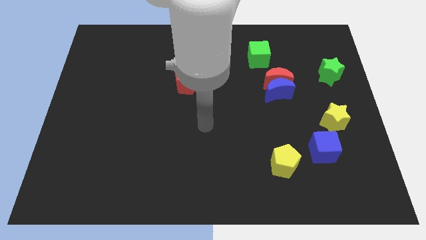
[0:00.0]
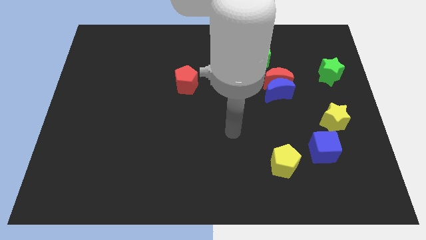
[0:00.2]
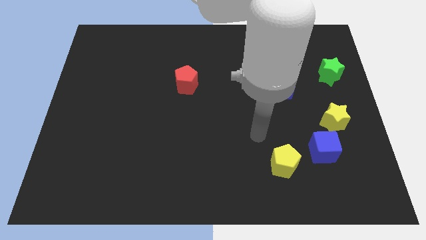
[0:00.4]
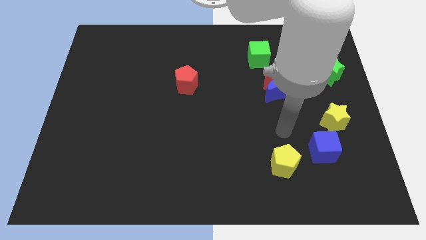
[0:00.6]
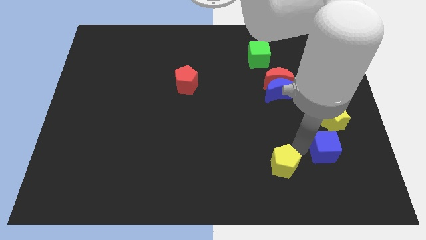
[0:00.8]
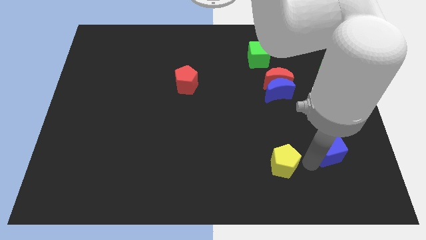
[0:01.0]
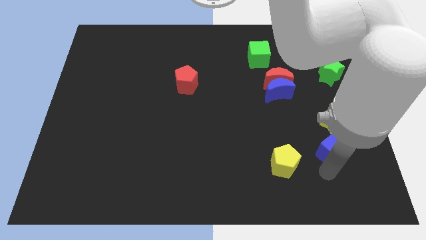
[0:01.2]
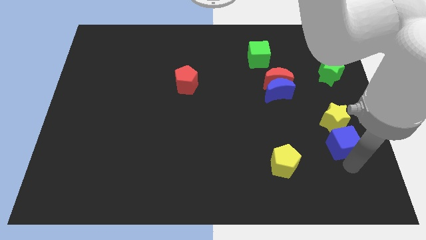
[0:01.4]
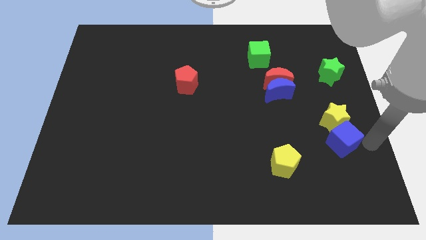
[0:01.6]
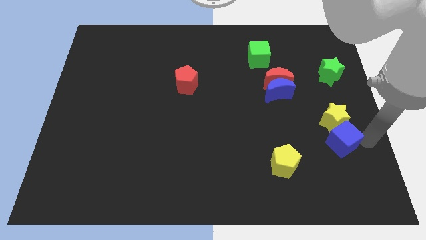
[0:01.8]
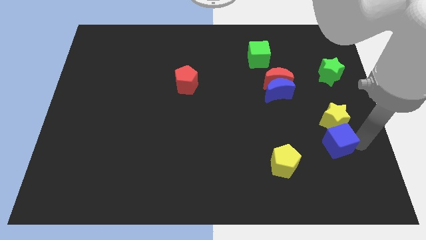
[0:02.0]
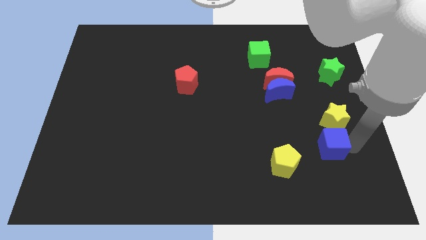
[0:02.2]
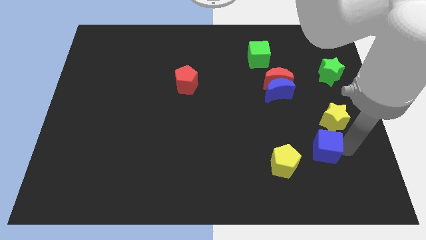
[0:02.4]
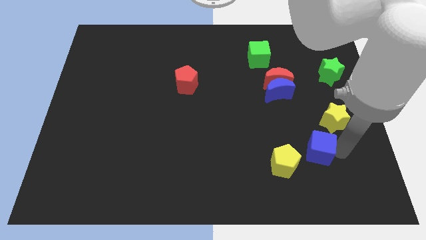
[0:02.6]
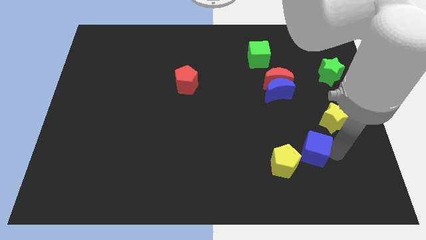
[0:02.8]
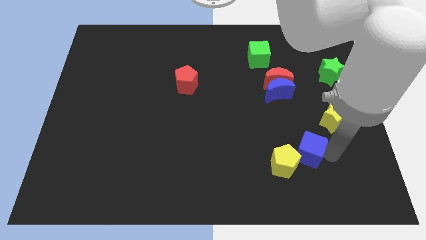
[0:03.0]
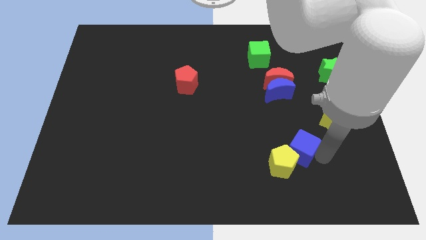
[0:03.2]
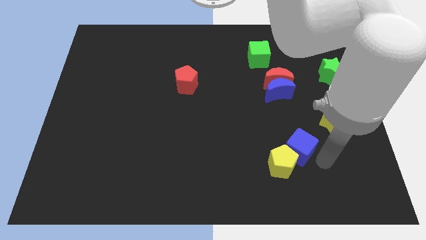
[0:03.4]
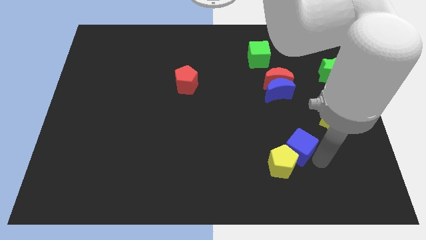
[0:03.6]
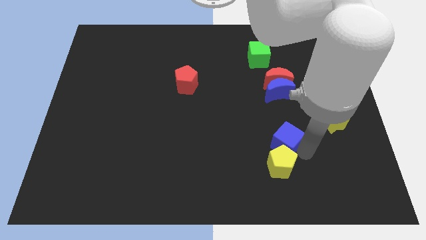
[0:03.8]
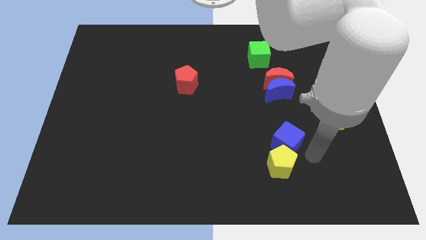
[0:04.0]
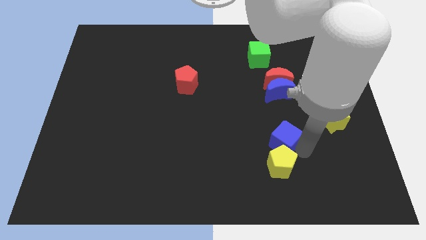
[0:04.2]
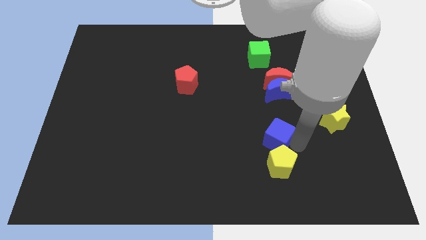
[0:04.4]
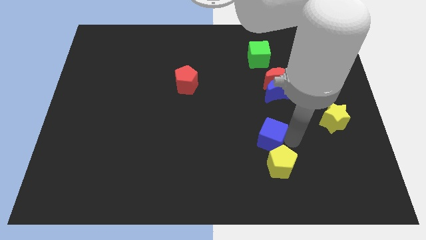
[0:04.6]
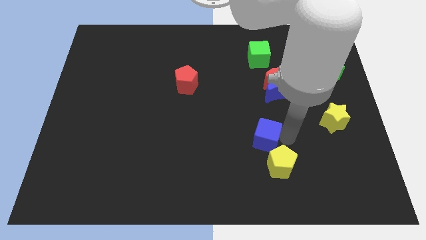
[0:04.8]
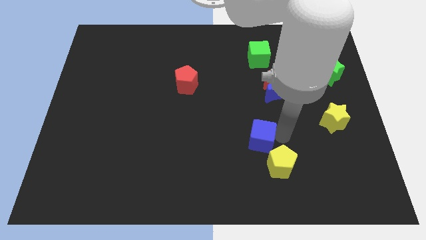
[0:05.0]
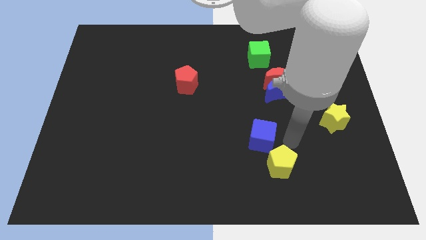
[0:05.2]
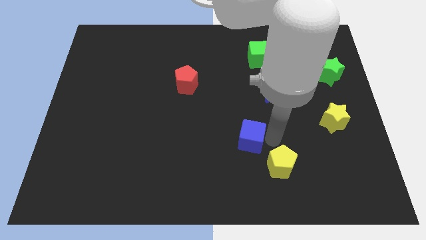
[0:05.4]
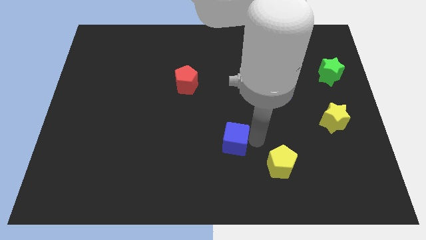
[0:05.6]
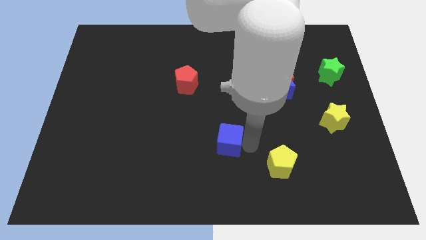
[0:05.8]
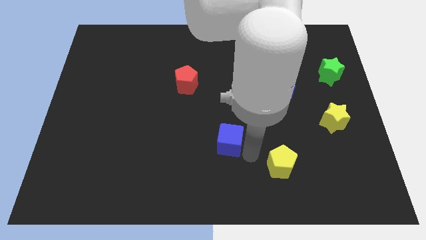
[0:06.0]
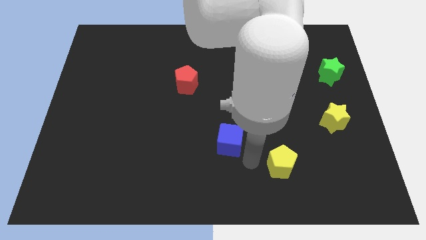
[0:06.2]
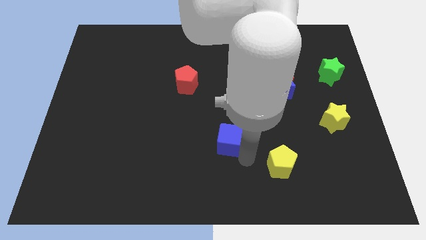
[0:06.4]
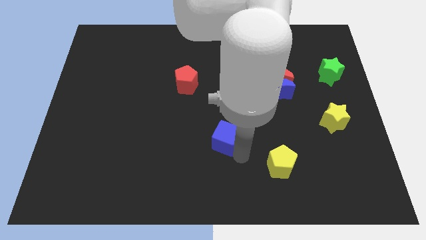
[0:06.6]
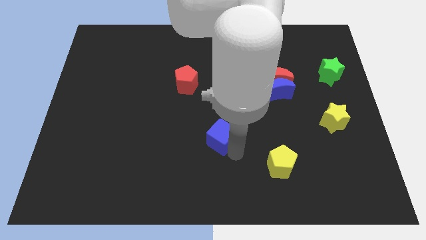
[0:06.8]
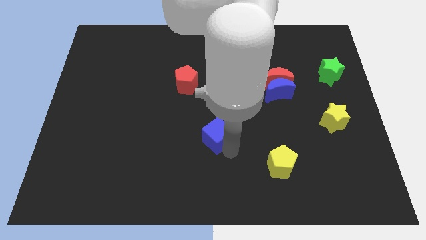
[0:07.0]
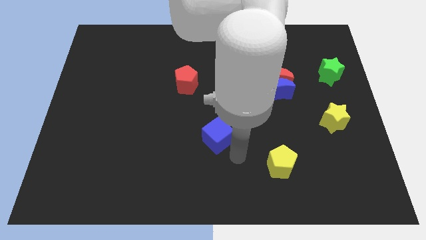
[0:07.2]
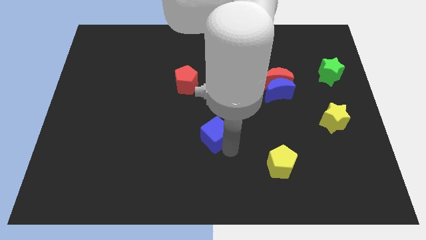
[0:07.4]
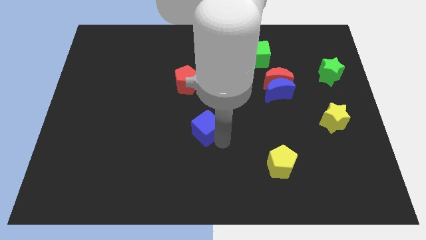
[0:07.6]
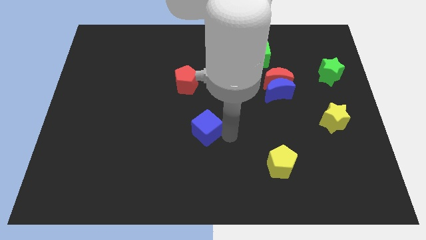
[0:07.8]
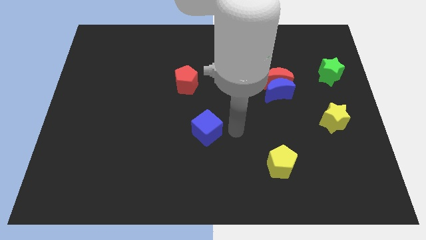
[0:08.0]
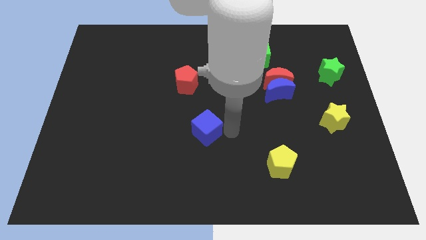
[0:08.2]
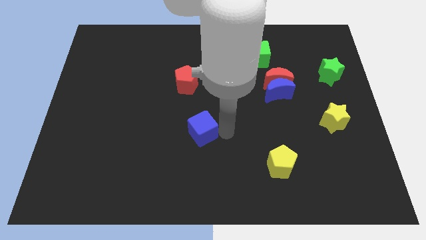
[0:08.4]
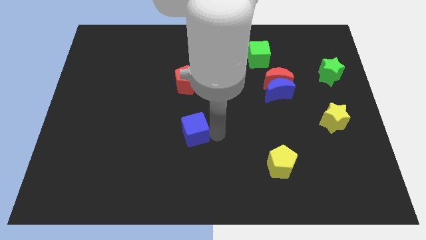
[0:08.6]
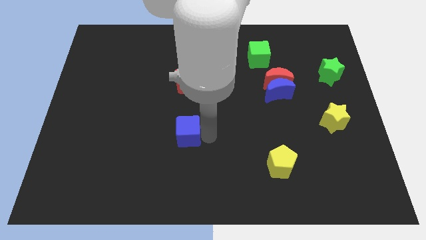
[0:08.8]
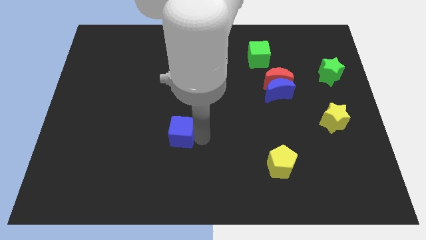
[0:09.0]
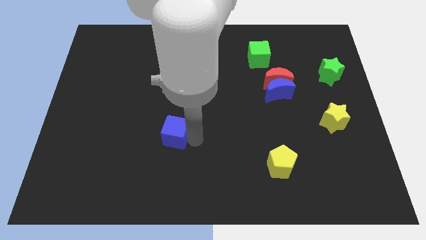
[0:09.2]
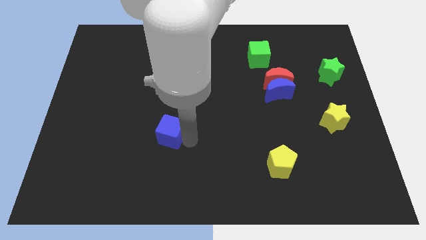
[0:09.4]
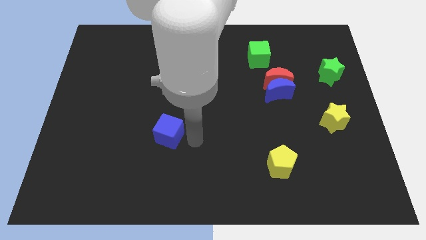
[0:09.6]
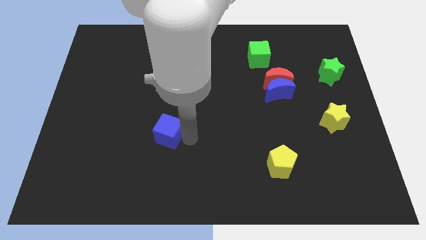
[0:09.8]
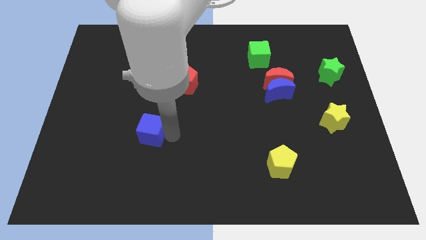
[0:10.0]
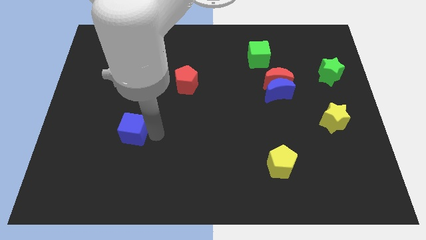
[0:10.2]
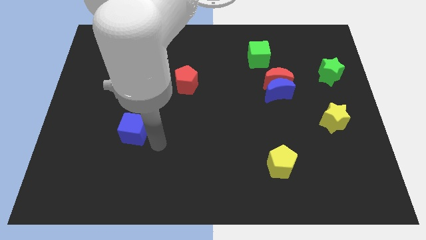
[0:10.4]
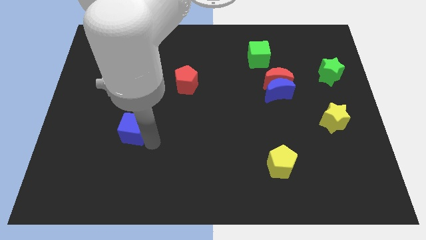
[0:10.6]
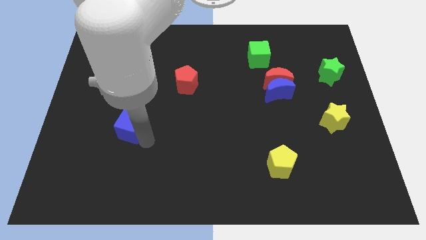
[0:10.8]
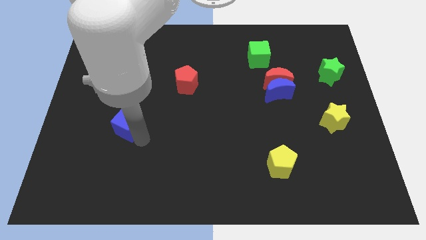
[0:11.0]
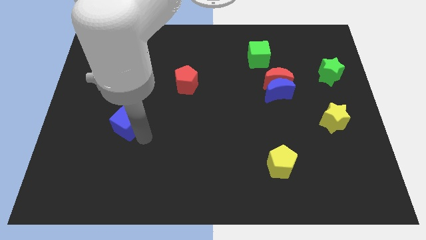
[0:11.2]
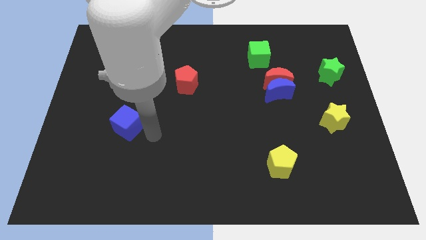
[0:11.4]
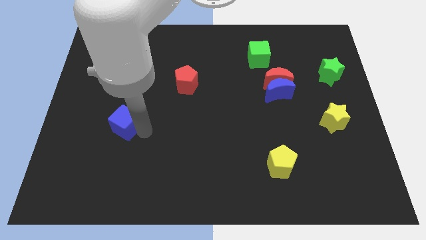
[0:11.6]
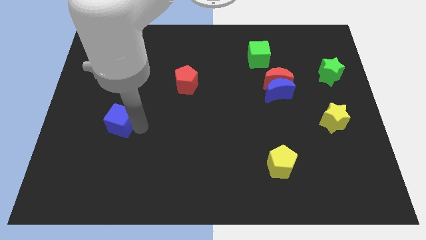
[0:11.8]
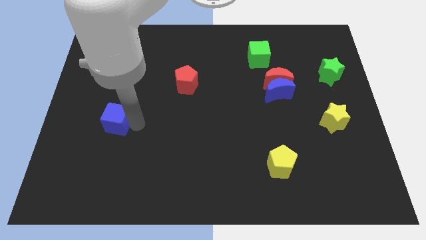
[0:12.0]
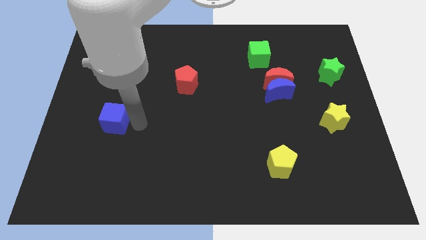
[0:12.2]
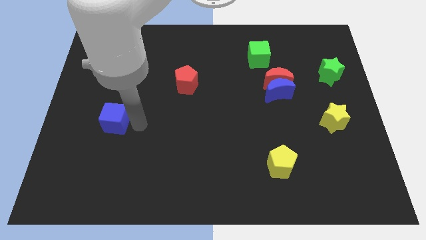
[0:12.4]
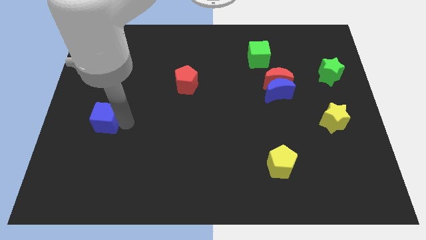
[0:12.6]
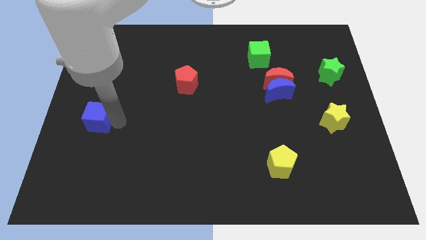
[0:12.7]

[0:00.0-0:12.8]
move the blue cube to the center left

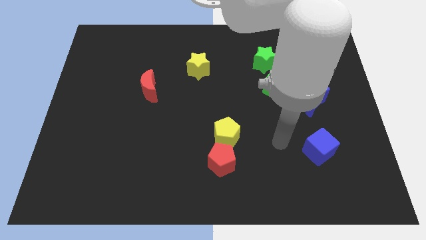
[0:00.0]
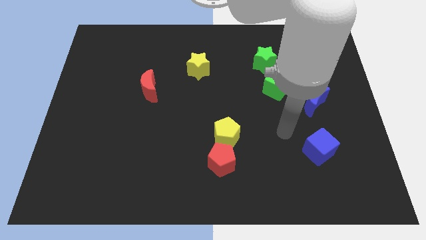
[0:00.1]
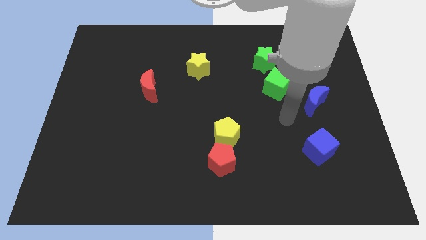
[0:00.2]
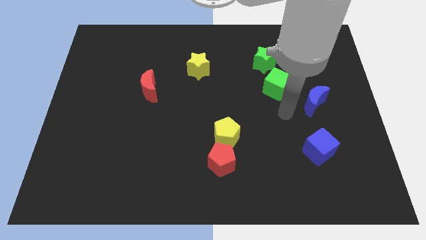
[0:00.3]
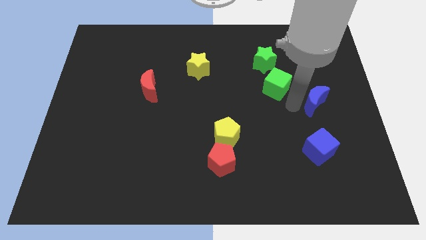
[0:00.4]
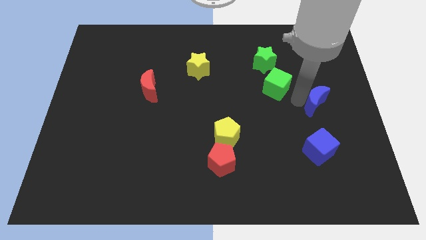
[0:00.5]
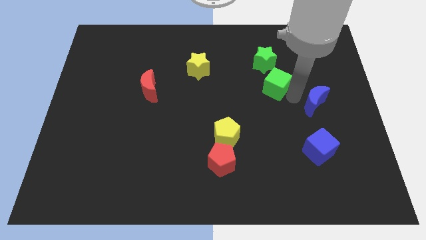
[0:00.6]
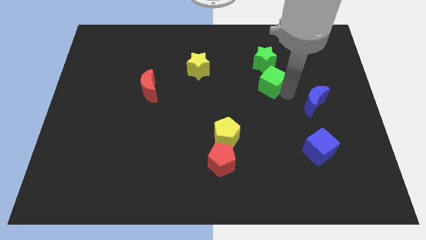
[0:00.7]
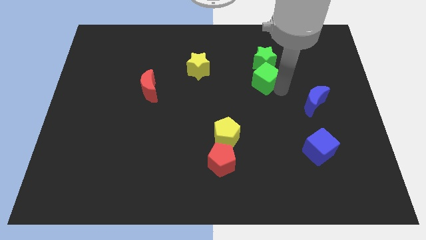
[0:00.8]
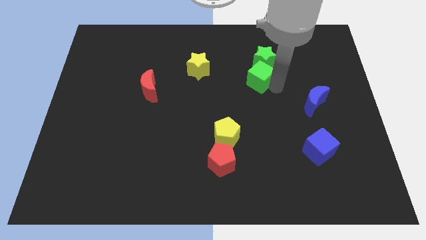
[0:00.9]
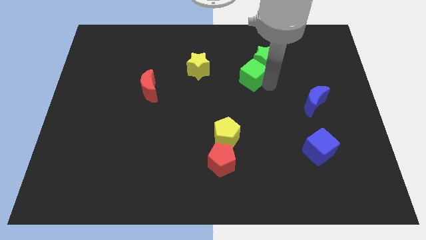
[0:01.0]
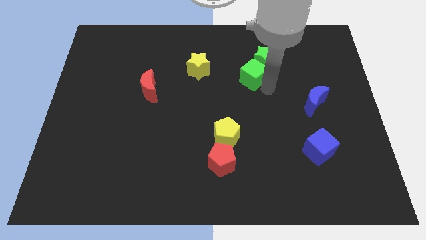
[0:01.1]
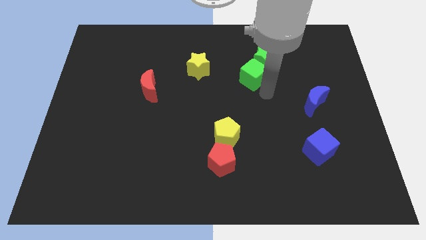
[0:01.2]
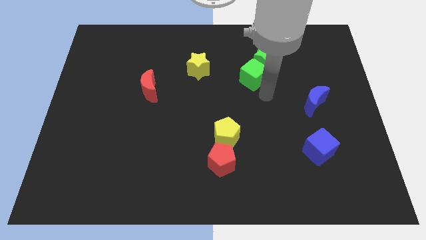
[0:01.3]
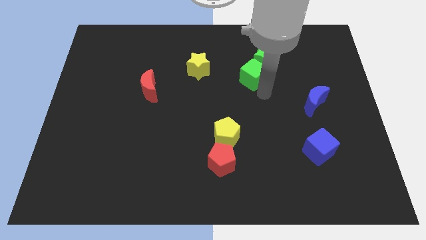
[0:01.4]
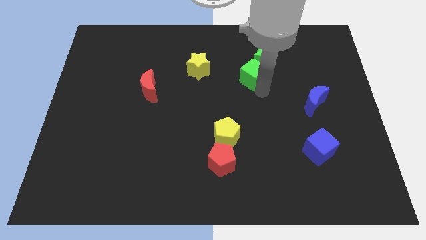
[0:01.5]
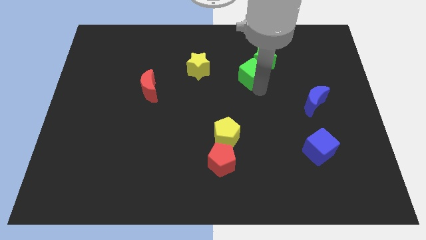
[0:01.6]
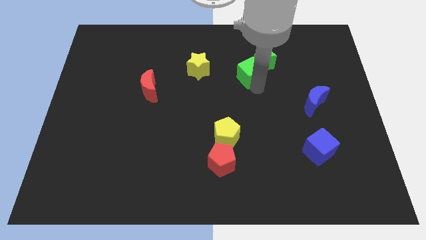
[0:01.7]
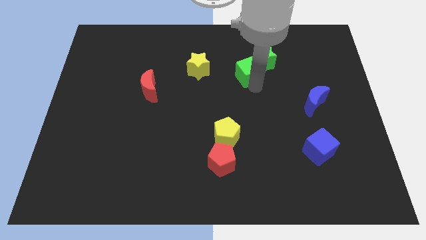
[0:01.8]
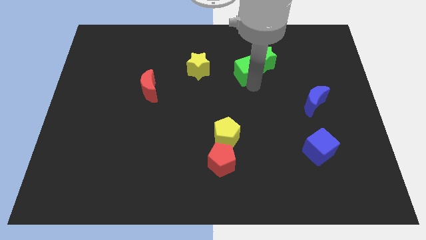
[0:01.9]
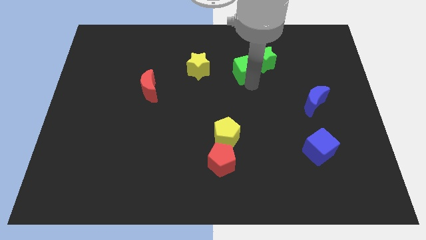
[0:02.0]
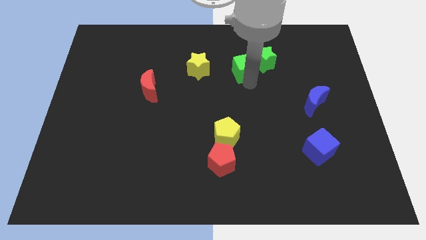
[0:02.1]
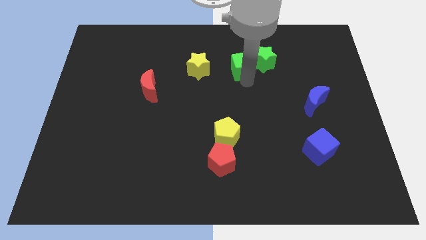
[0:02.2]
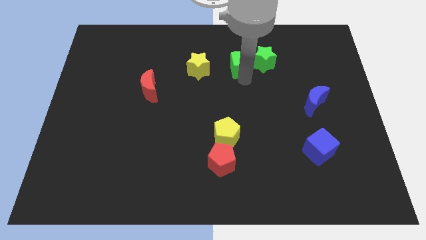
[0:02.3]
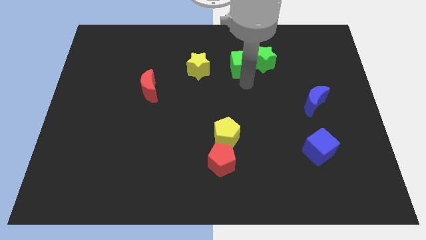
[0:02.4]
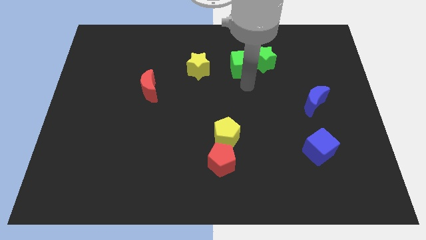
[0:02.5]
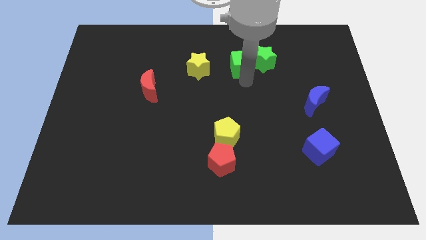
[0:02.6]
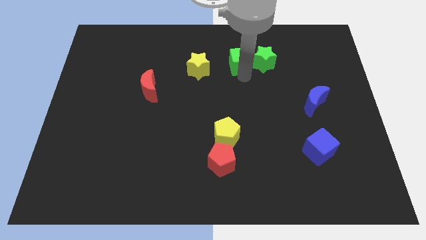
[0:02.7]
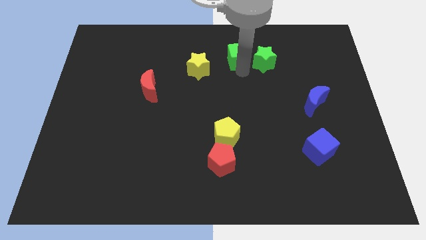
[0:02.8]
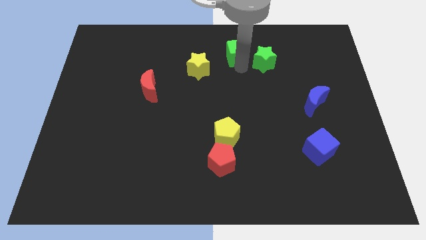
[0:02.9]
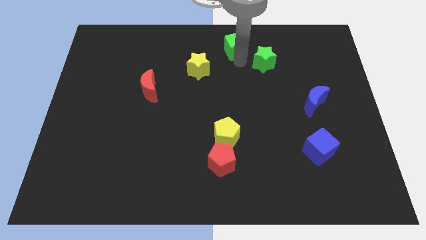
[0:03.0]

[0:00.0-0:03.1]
put the green cube to the top side
